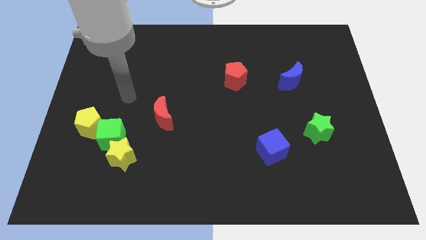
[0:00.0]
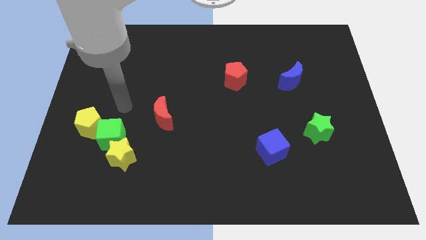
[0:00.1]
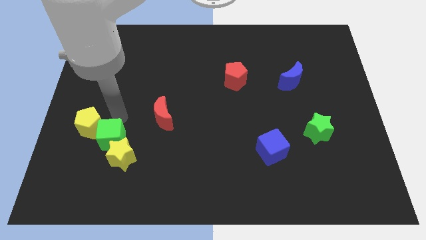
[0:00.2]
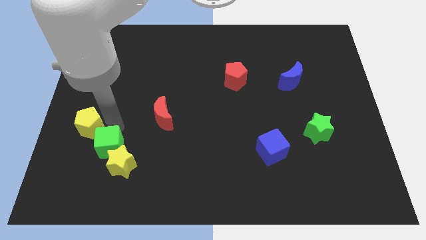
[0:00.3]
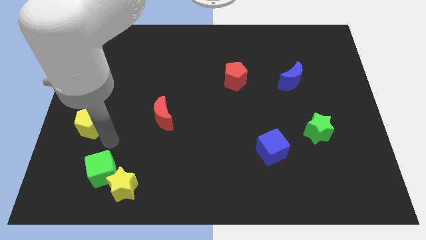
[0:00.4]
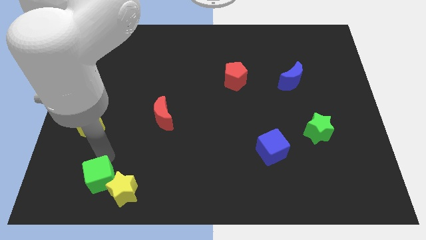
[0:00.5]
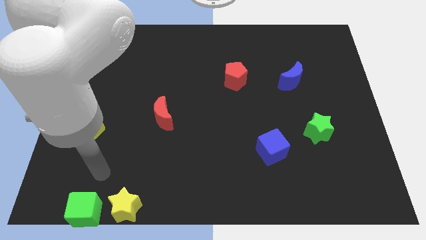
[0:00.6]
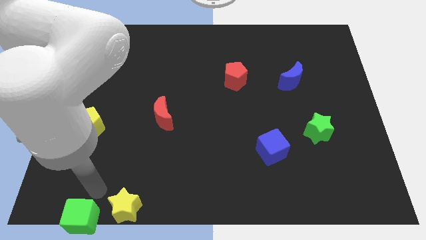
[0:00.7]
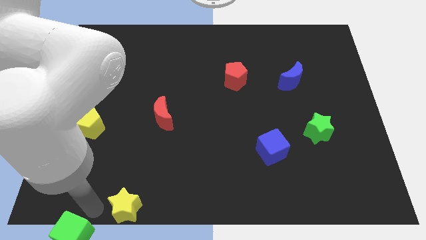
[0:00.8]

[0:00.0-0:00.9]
move the yellow star away from the green cube

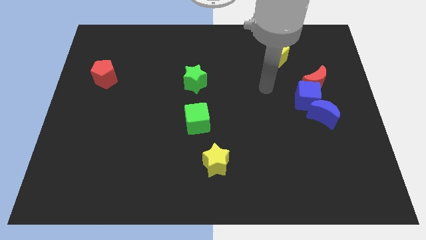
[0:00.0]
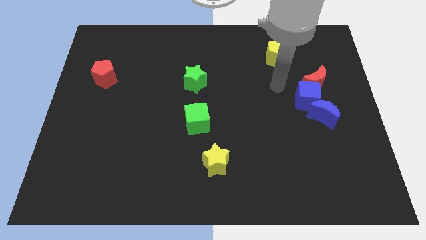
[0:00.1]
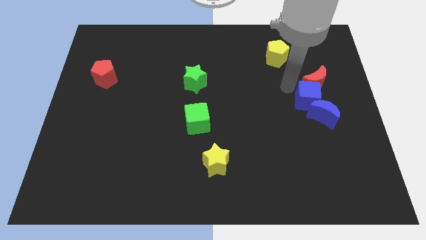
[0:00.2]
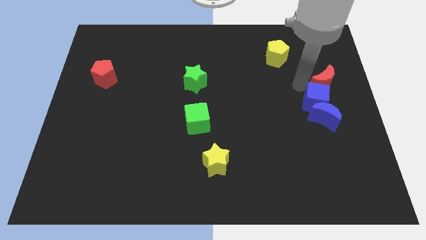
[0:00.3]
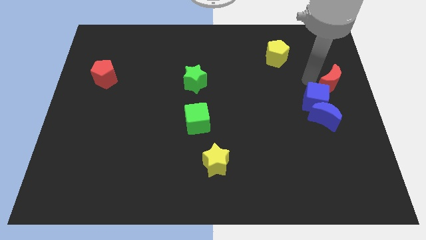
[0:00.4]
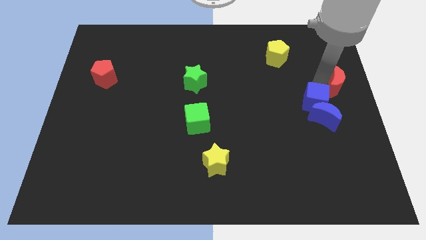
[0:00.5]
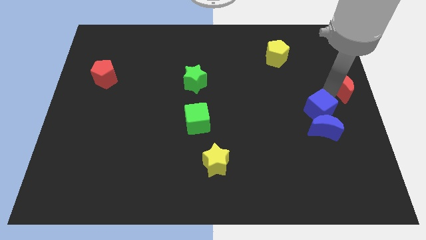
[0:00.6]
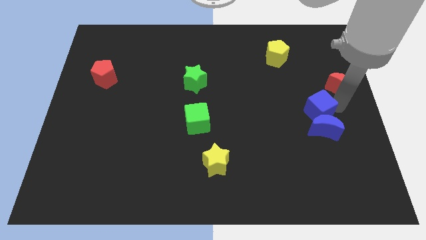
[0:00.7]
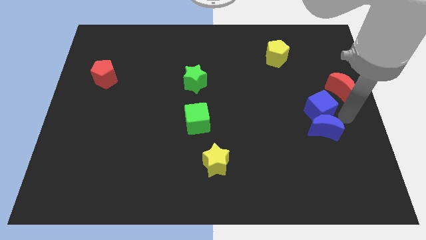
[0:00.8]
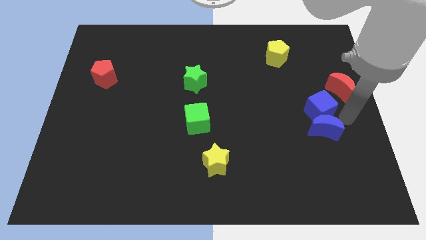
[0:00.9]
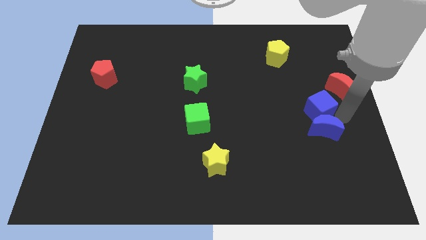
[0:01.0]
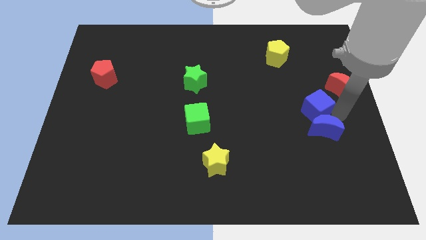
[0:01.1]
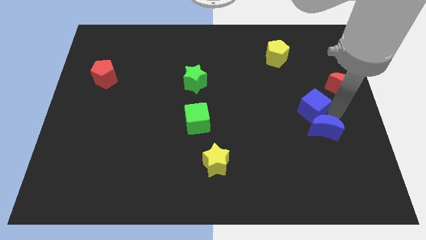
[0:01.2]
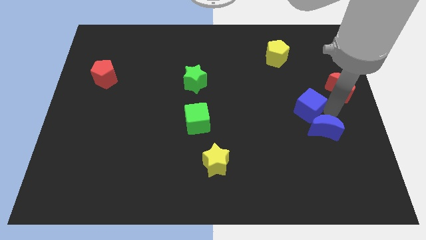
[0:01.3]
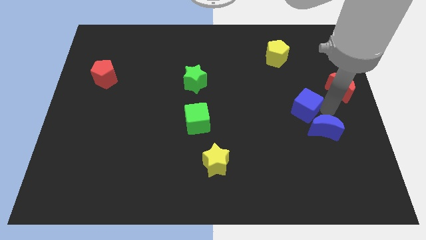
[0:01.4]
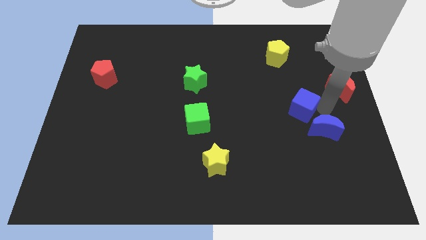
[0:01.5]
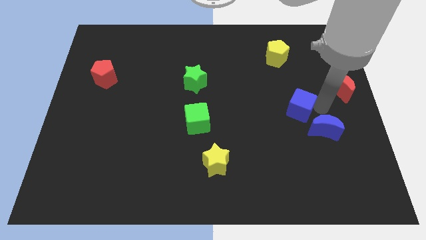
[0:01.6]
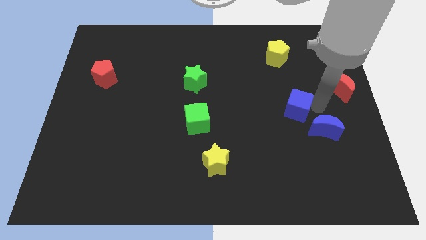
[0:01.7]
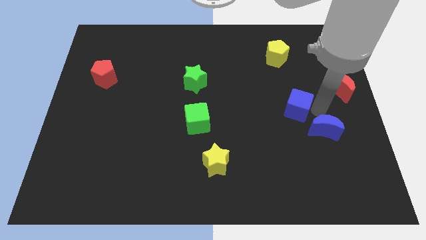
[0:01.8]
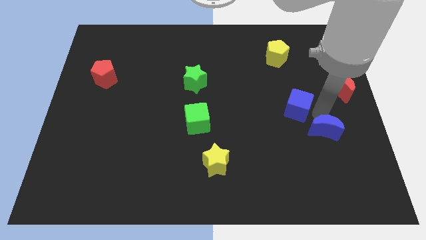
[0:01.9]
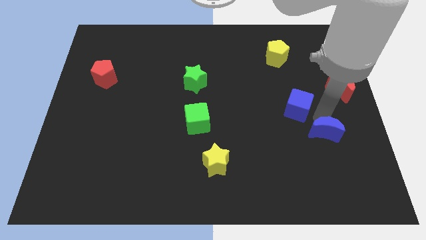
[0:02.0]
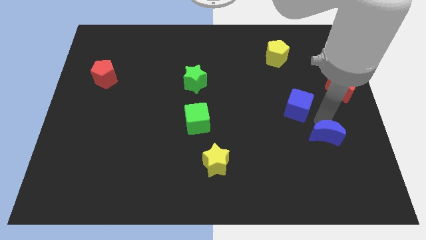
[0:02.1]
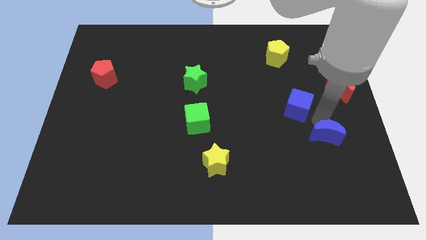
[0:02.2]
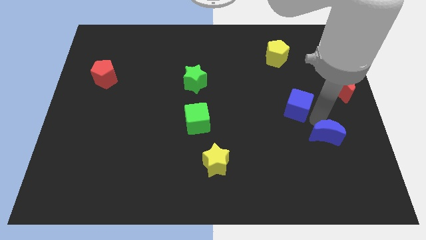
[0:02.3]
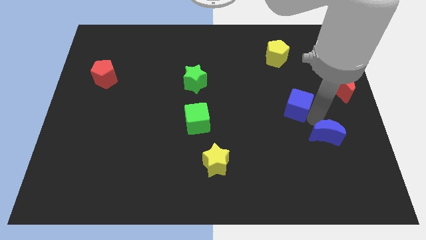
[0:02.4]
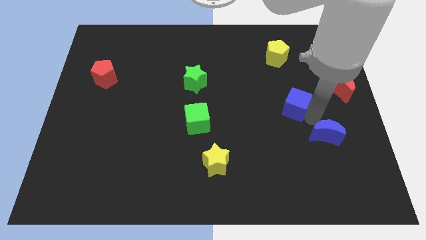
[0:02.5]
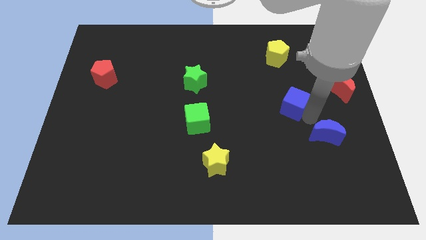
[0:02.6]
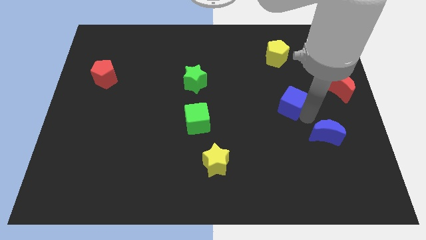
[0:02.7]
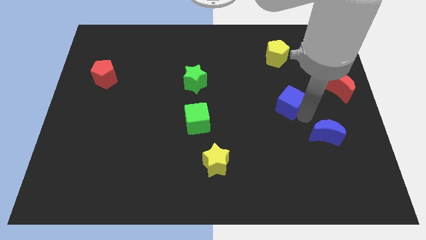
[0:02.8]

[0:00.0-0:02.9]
move the blue cube away from the red moon and blue moon

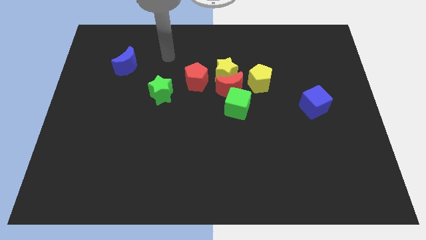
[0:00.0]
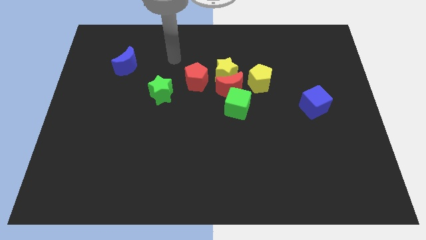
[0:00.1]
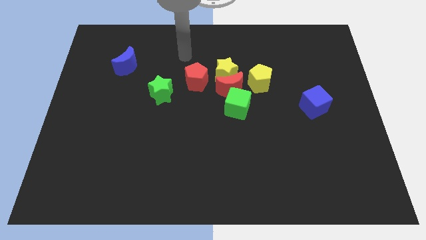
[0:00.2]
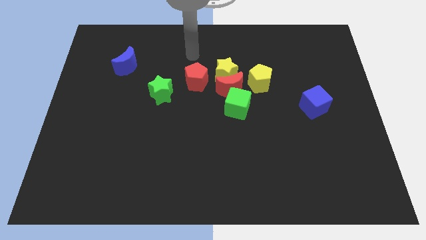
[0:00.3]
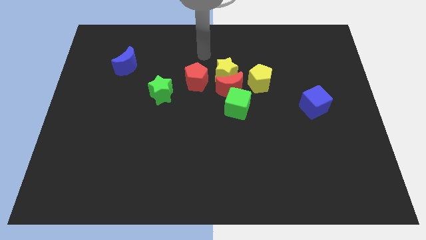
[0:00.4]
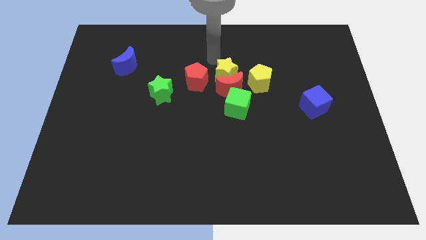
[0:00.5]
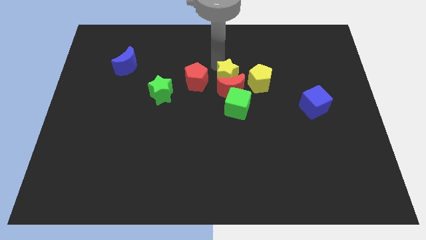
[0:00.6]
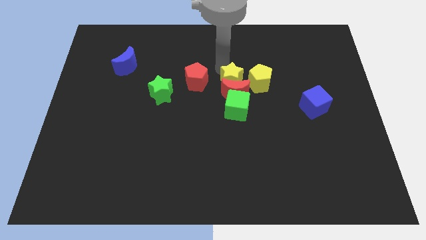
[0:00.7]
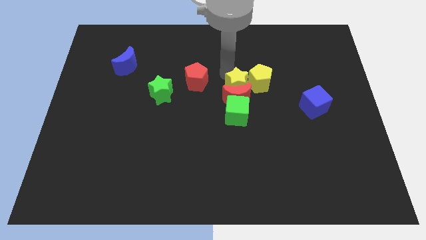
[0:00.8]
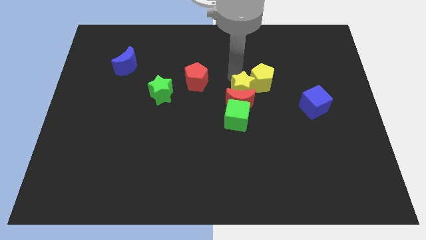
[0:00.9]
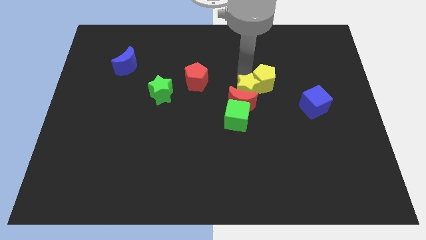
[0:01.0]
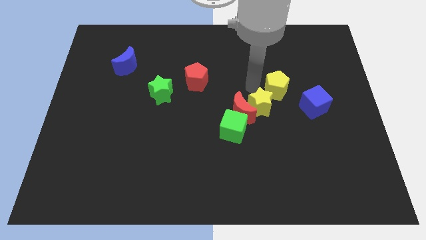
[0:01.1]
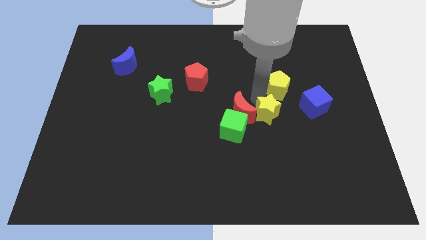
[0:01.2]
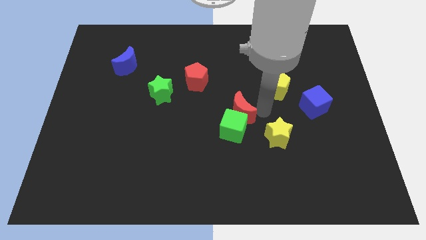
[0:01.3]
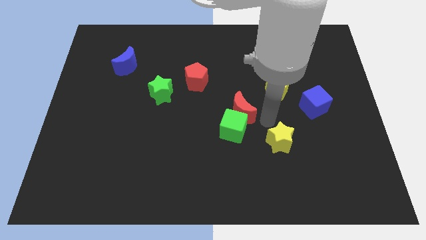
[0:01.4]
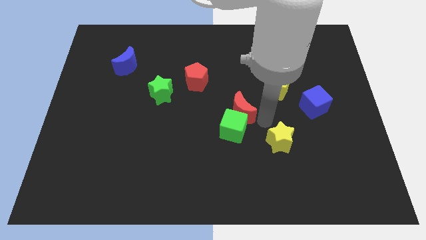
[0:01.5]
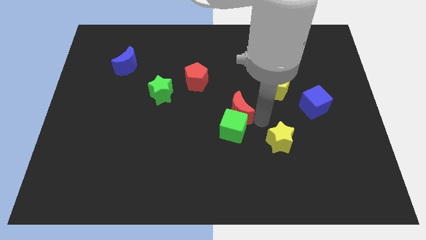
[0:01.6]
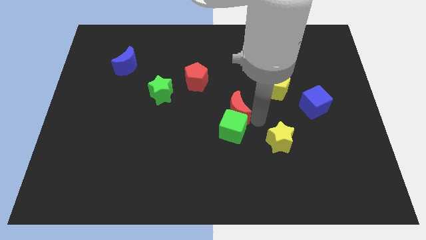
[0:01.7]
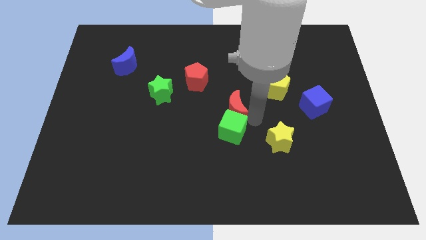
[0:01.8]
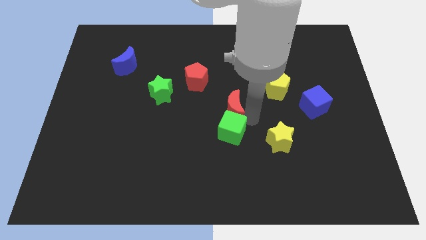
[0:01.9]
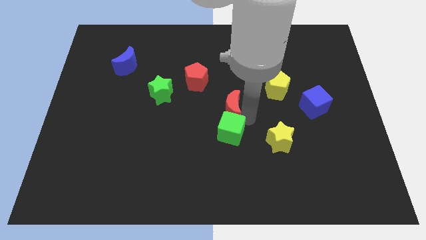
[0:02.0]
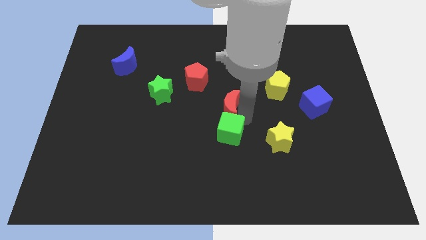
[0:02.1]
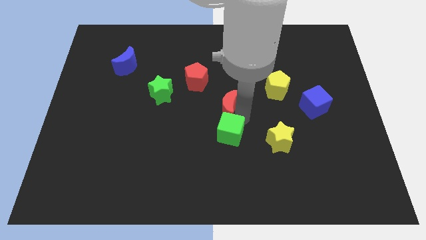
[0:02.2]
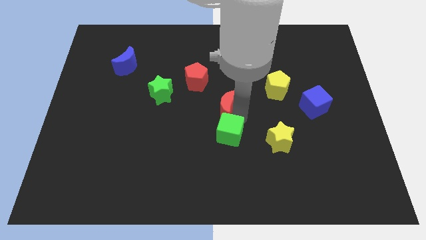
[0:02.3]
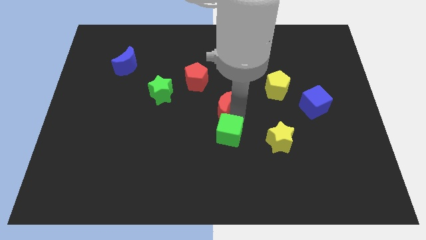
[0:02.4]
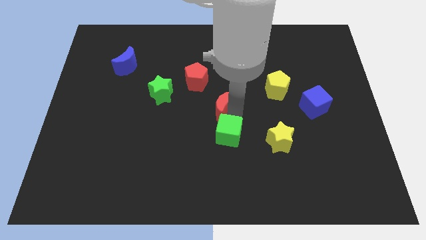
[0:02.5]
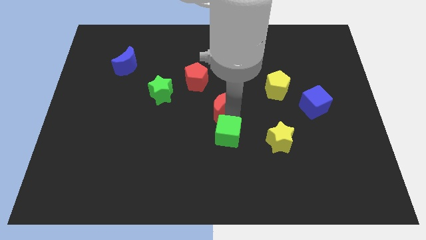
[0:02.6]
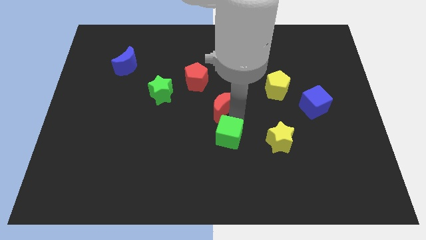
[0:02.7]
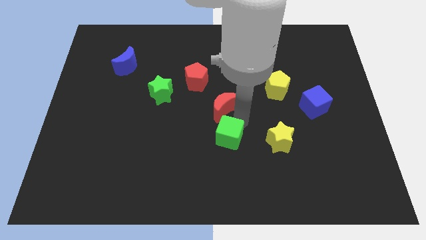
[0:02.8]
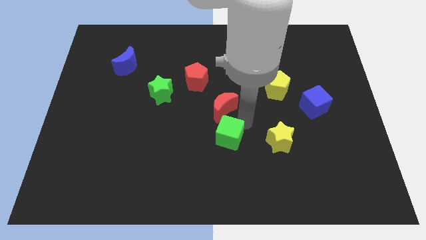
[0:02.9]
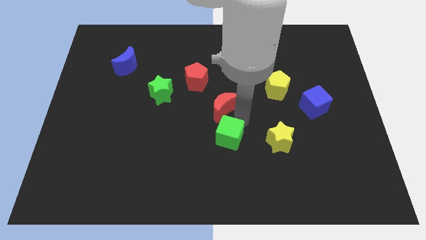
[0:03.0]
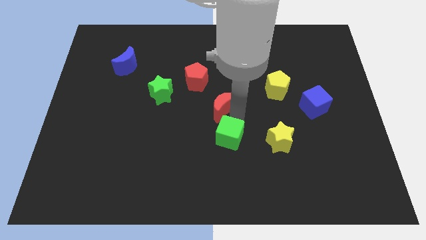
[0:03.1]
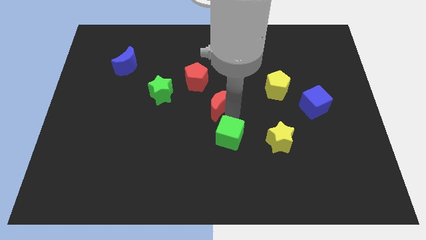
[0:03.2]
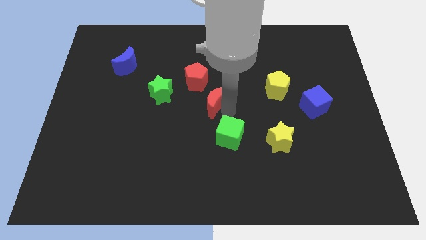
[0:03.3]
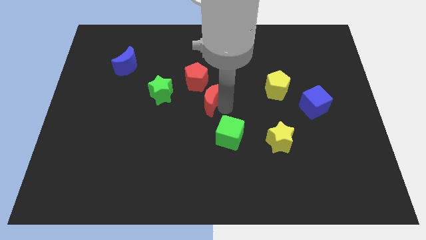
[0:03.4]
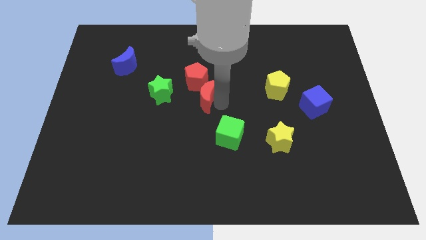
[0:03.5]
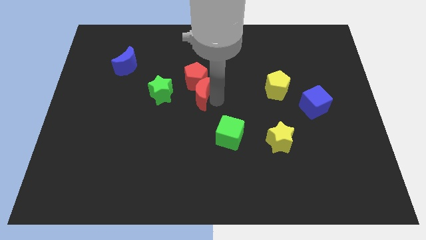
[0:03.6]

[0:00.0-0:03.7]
pull the red moon apart from the group of blocks

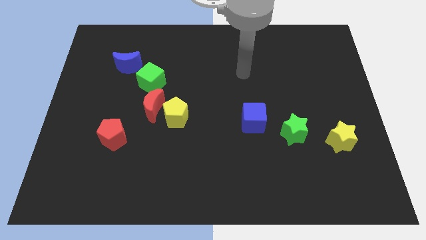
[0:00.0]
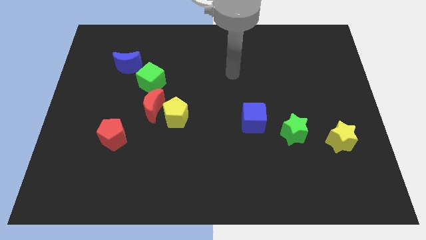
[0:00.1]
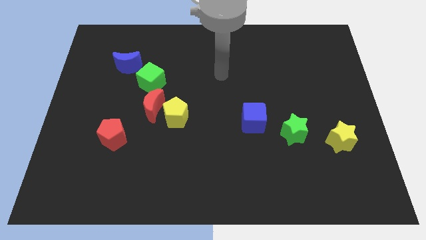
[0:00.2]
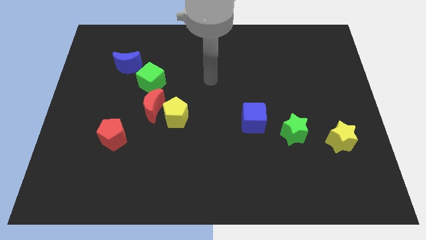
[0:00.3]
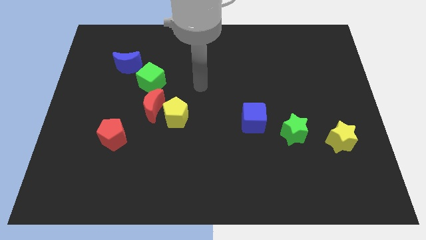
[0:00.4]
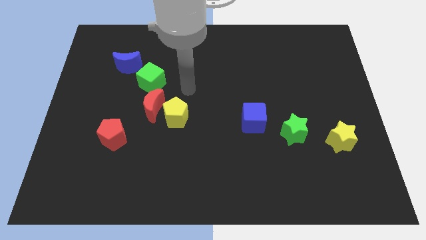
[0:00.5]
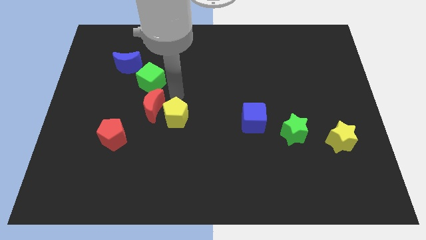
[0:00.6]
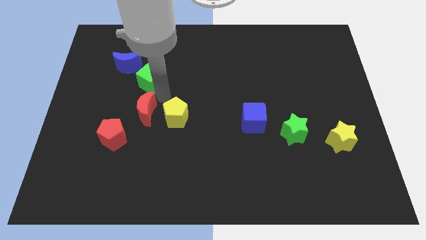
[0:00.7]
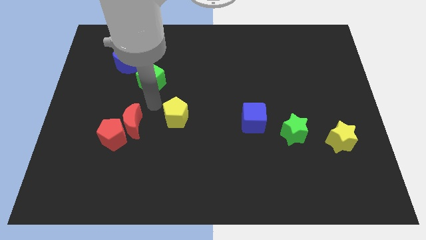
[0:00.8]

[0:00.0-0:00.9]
separate the yellow pentagon from the red moon

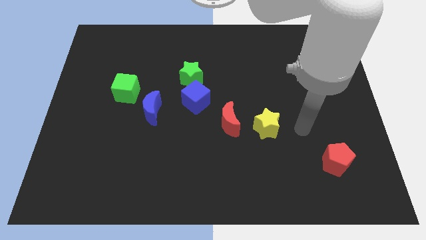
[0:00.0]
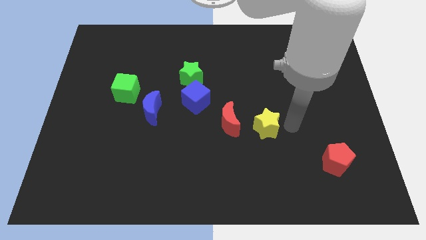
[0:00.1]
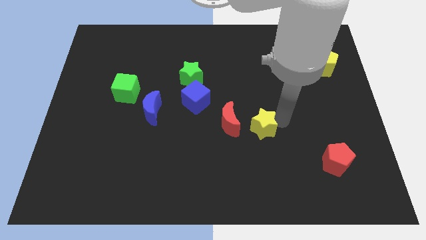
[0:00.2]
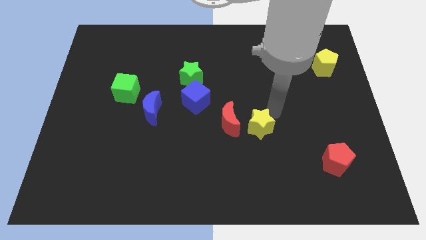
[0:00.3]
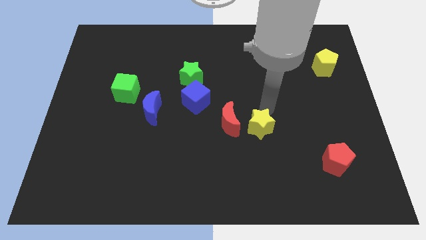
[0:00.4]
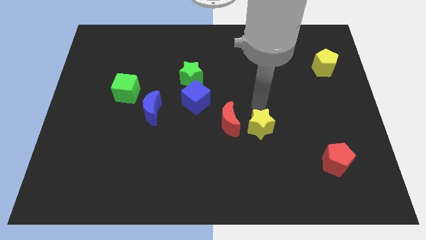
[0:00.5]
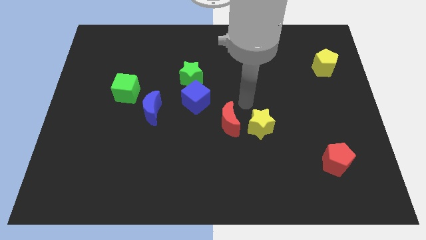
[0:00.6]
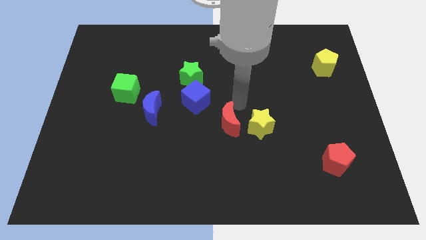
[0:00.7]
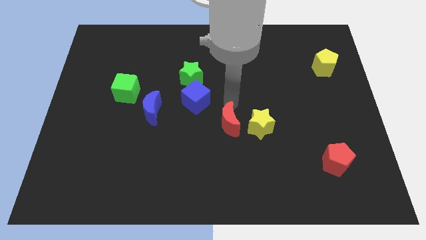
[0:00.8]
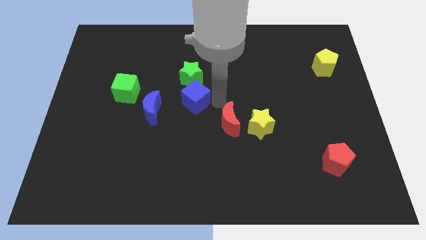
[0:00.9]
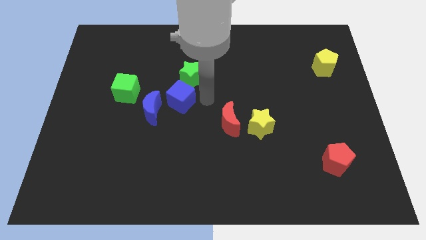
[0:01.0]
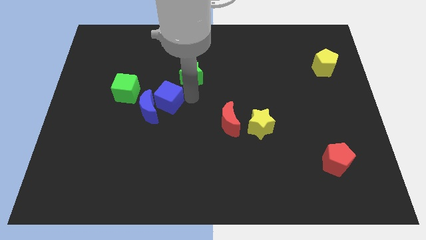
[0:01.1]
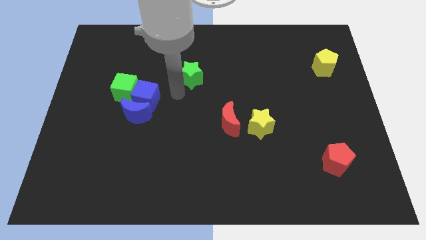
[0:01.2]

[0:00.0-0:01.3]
separate the green star from the blue cube
